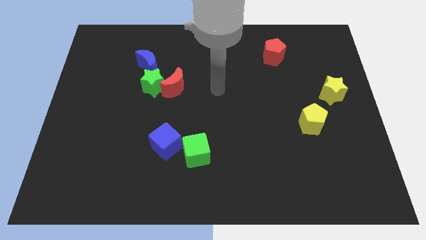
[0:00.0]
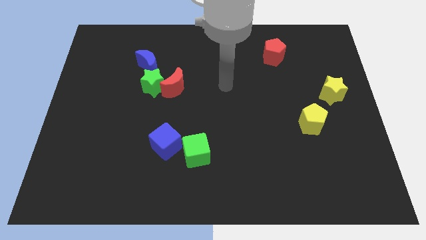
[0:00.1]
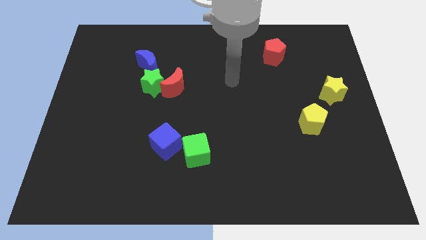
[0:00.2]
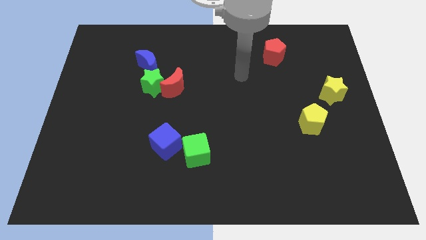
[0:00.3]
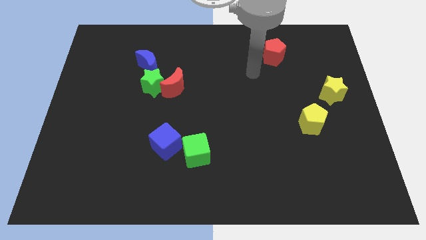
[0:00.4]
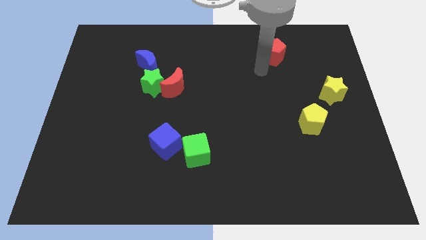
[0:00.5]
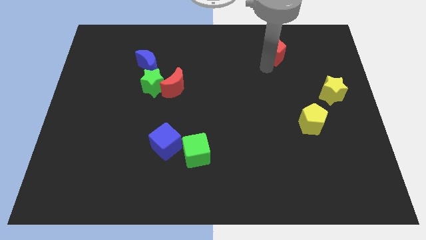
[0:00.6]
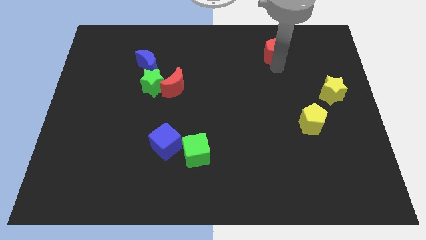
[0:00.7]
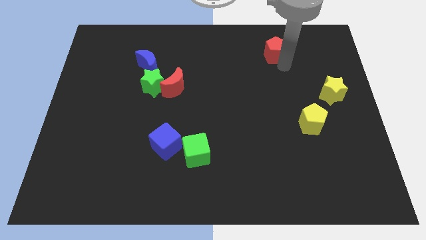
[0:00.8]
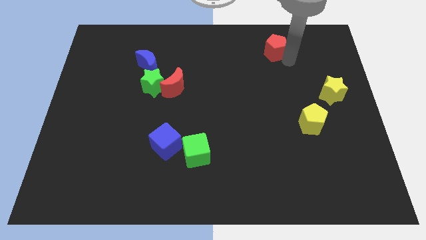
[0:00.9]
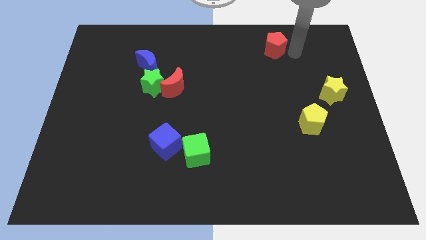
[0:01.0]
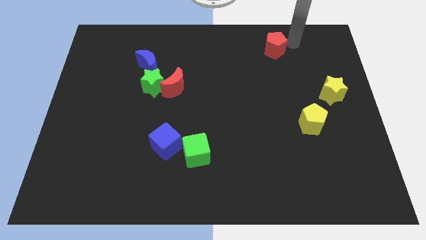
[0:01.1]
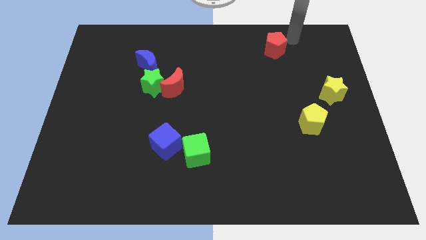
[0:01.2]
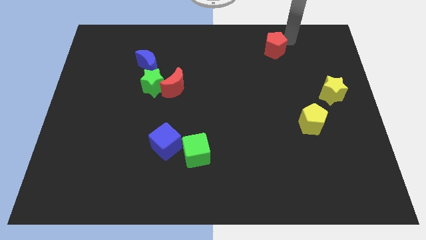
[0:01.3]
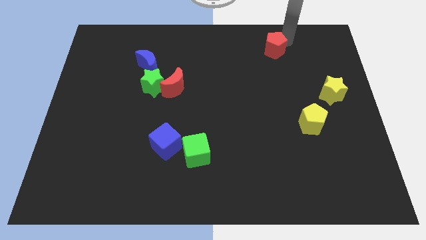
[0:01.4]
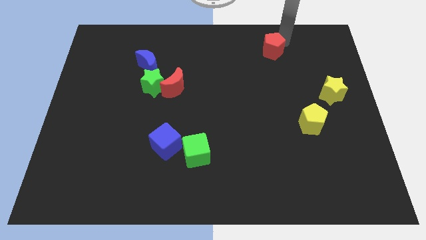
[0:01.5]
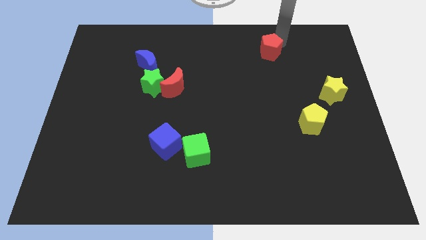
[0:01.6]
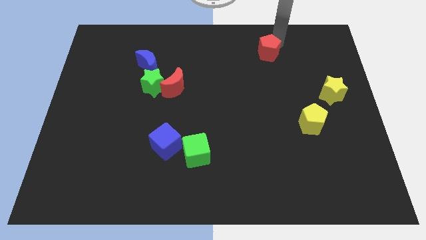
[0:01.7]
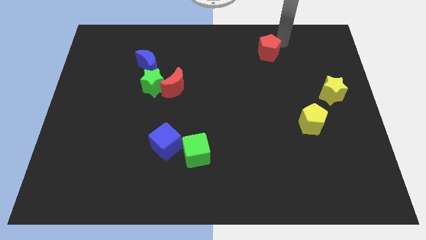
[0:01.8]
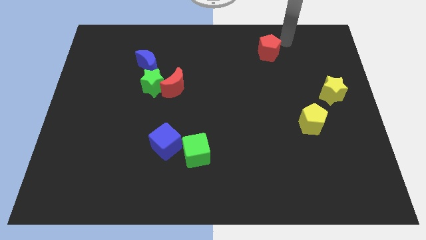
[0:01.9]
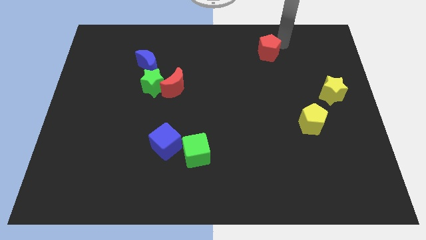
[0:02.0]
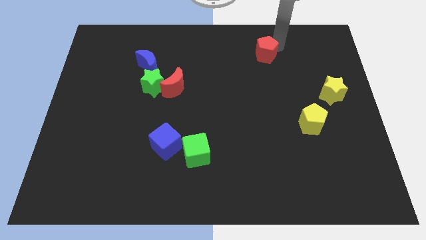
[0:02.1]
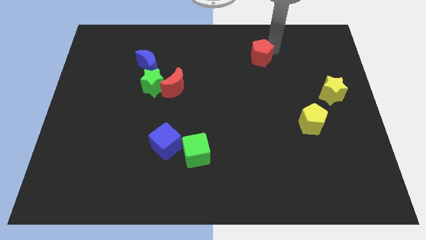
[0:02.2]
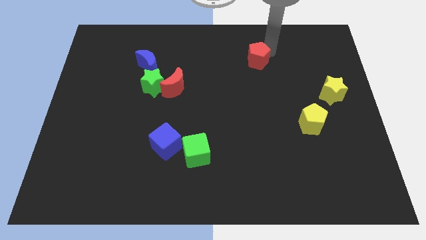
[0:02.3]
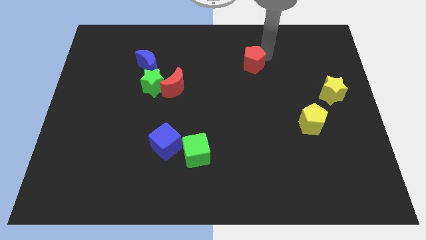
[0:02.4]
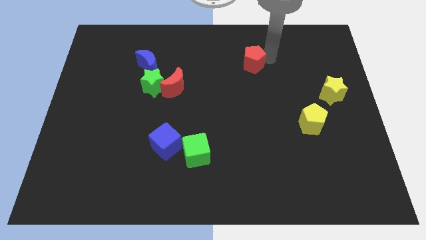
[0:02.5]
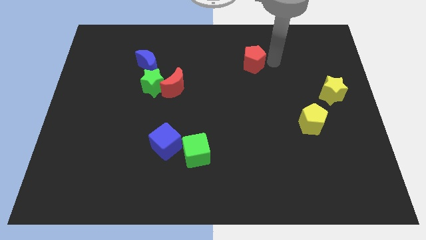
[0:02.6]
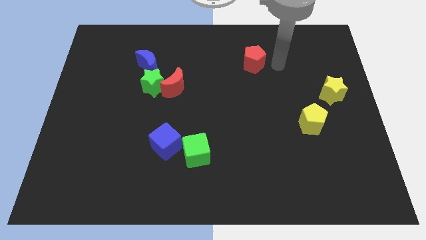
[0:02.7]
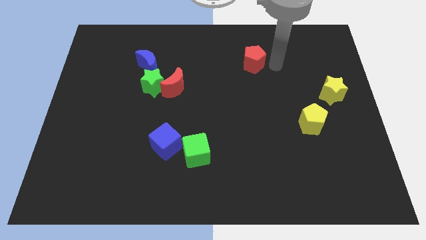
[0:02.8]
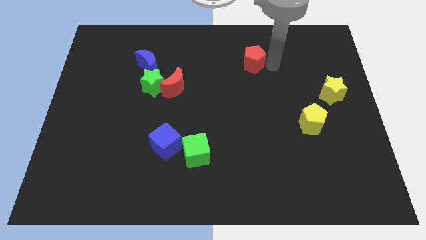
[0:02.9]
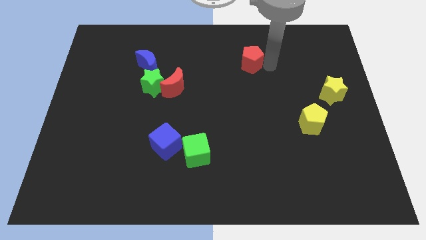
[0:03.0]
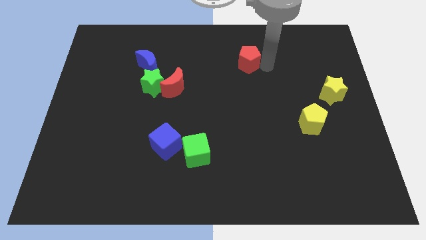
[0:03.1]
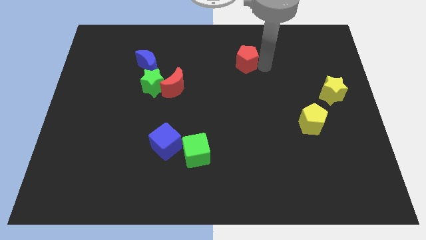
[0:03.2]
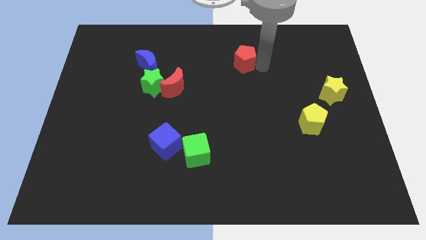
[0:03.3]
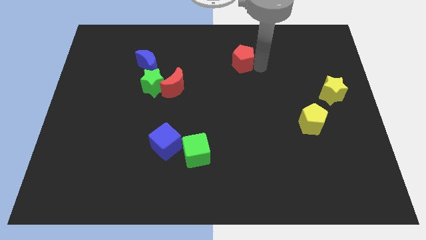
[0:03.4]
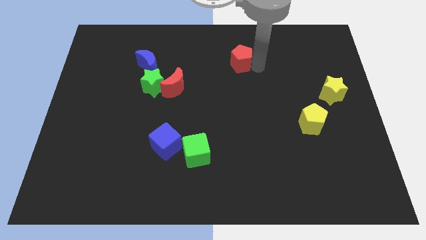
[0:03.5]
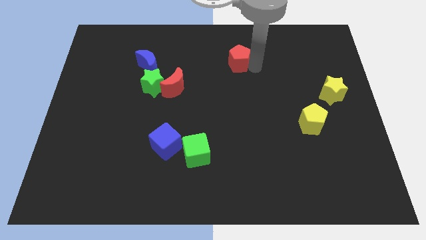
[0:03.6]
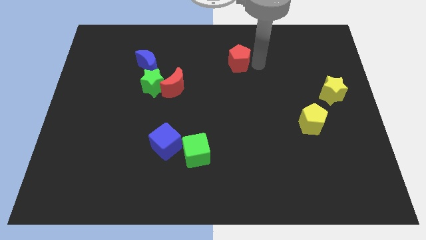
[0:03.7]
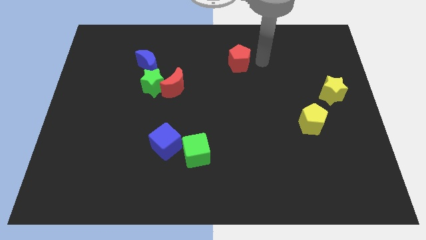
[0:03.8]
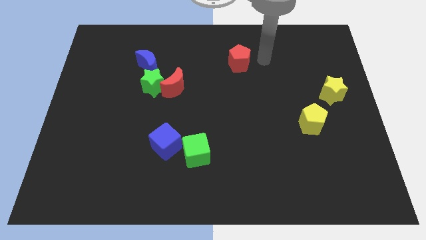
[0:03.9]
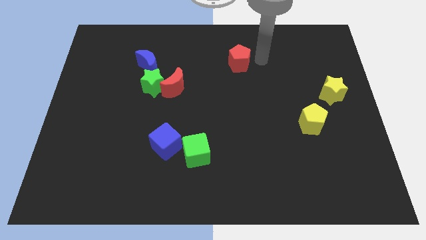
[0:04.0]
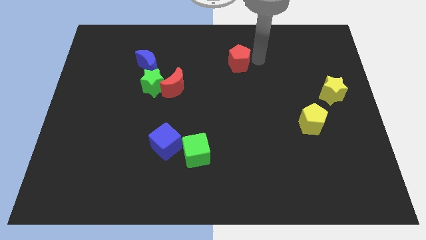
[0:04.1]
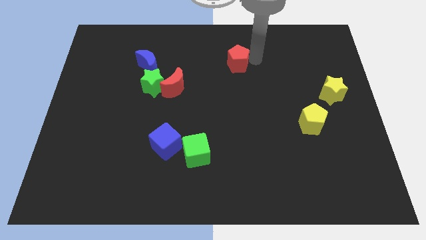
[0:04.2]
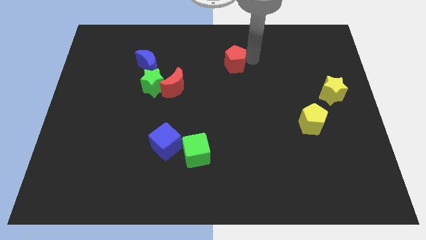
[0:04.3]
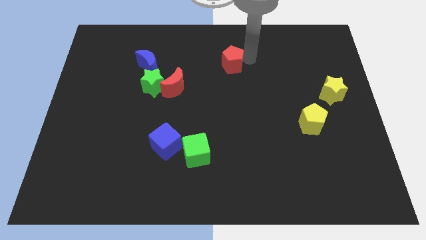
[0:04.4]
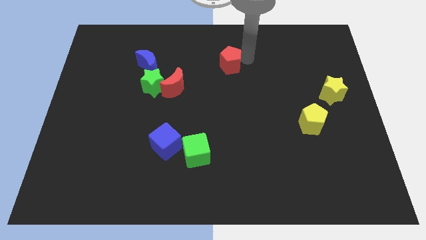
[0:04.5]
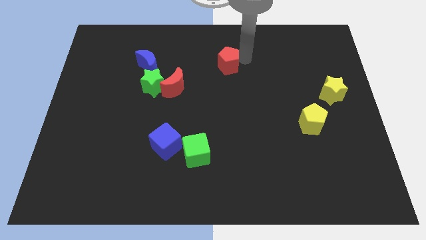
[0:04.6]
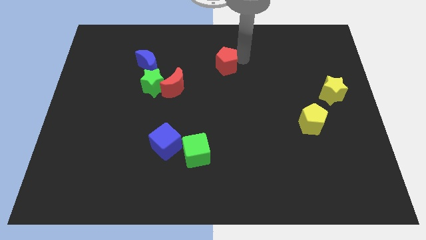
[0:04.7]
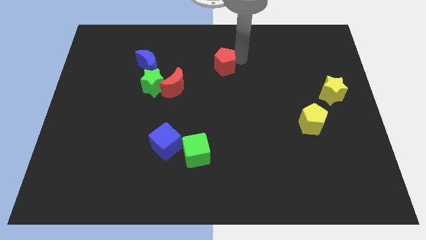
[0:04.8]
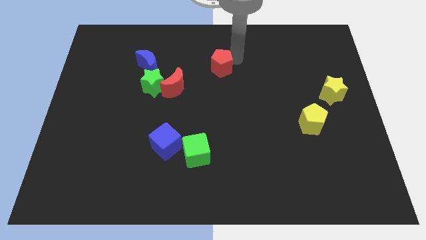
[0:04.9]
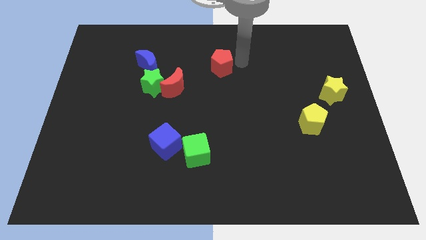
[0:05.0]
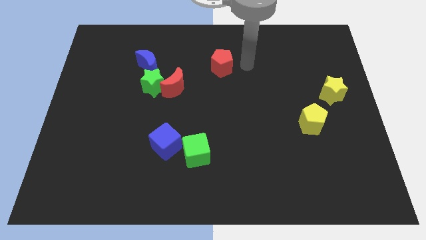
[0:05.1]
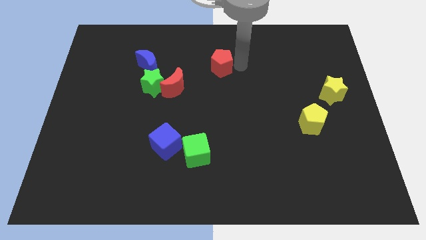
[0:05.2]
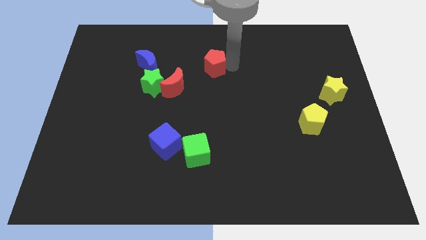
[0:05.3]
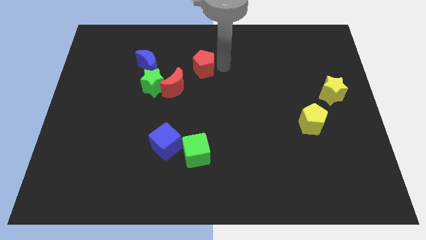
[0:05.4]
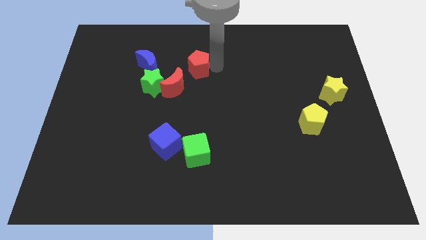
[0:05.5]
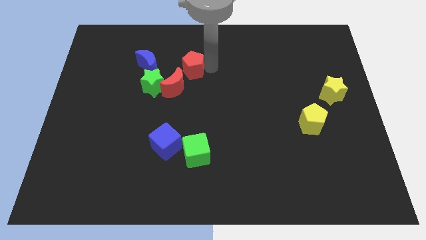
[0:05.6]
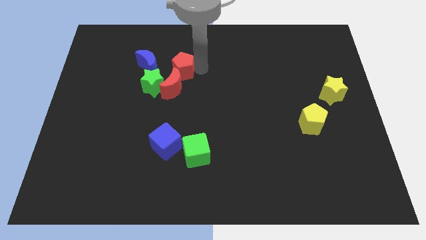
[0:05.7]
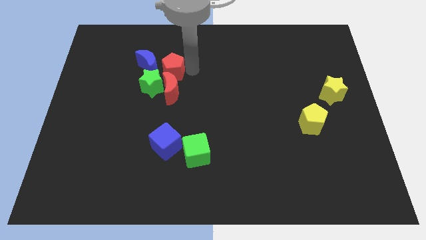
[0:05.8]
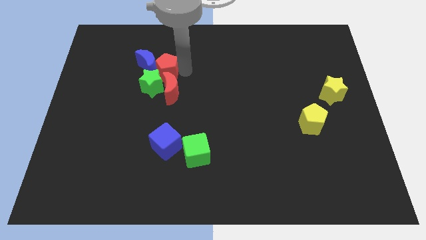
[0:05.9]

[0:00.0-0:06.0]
push the red pentagon towards the blue moon

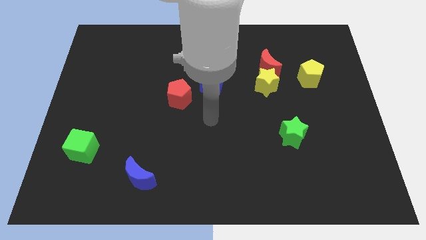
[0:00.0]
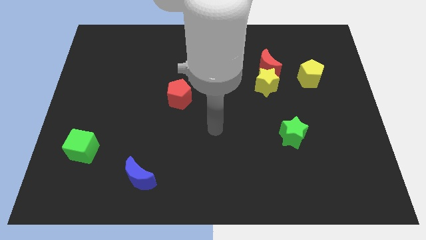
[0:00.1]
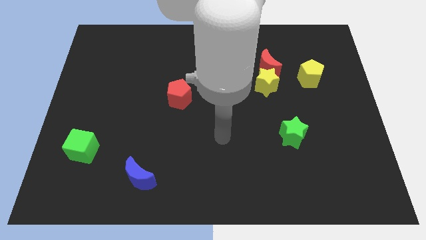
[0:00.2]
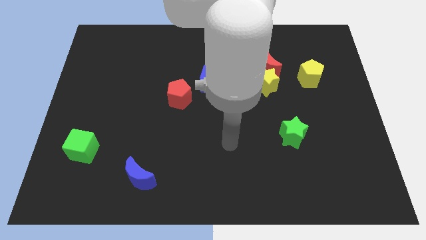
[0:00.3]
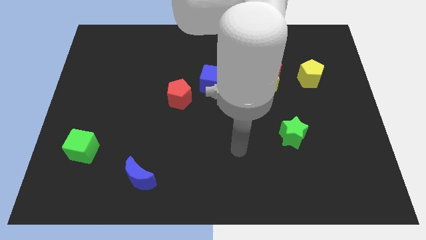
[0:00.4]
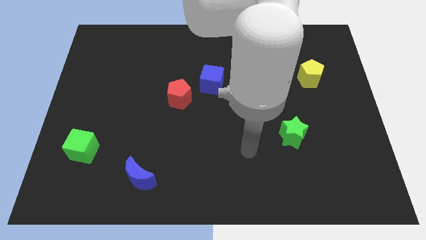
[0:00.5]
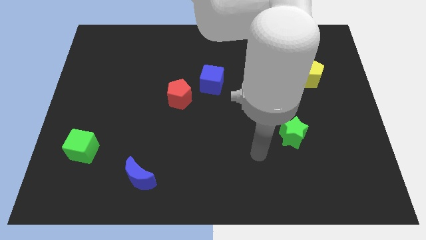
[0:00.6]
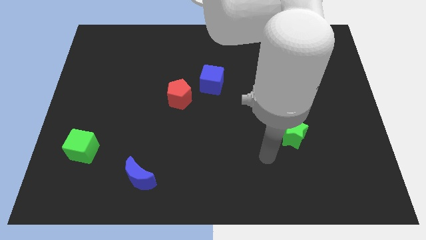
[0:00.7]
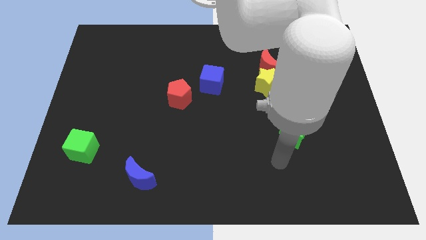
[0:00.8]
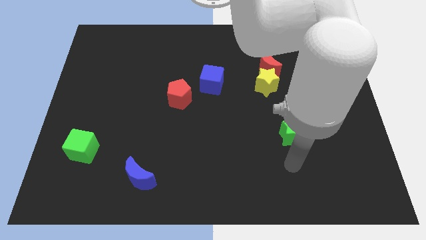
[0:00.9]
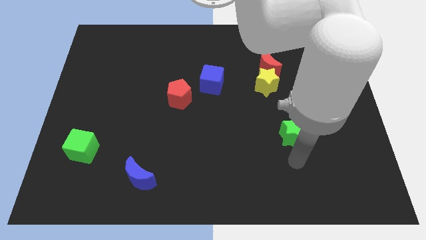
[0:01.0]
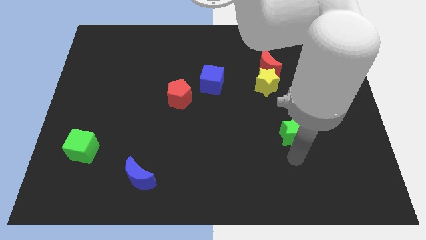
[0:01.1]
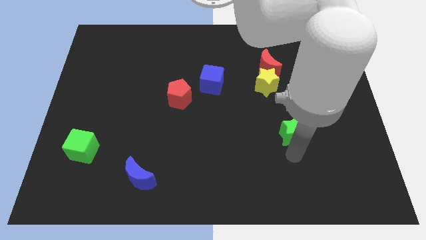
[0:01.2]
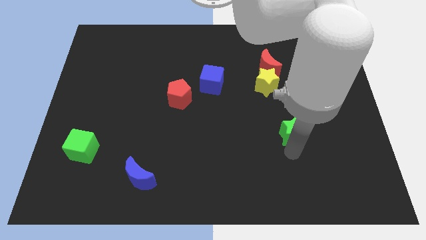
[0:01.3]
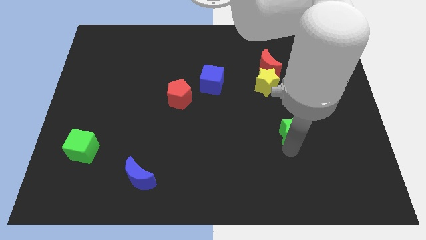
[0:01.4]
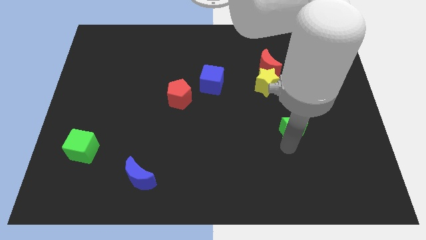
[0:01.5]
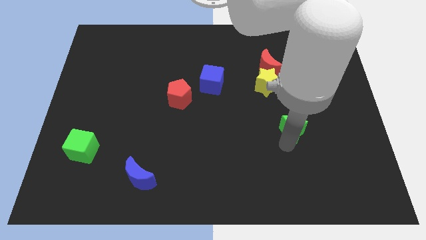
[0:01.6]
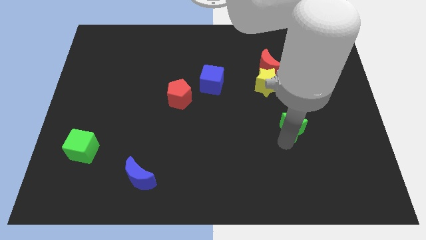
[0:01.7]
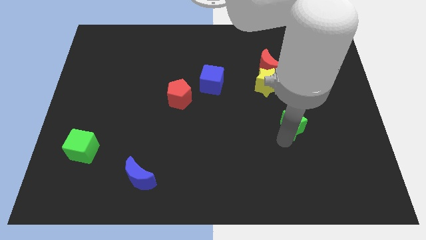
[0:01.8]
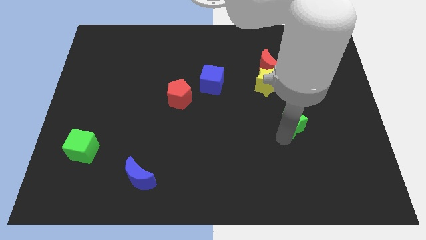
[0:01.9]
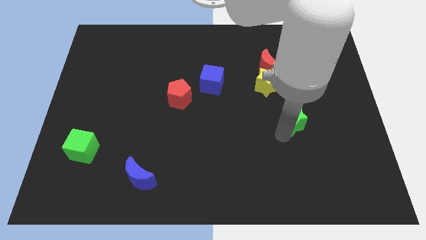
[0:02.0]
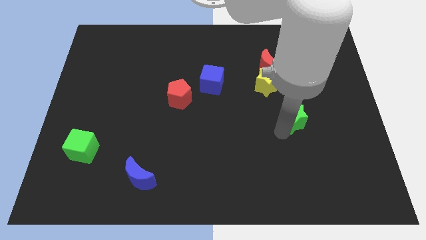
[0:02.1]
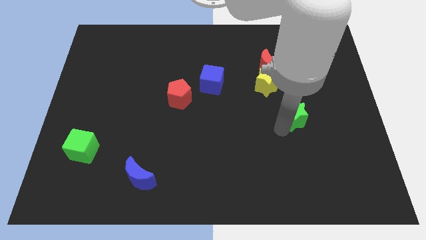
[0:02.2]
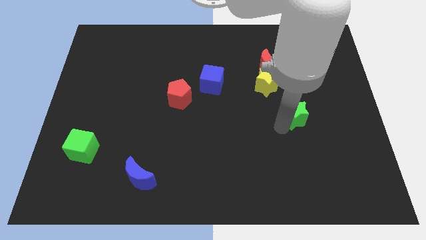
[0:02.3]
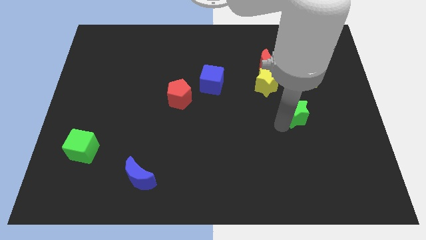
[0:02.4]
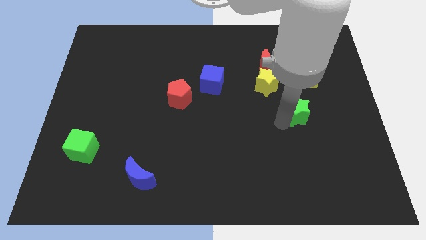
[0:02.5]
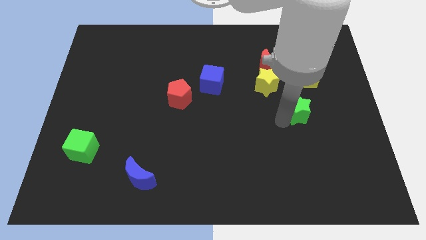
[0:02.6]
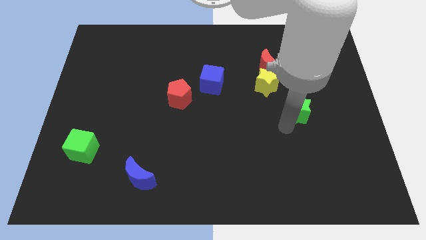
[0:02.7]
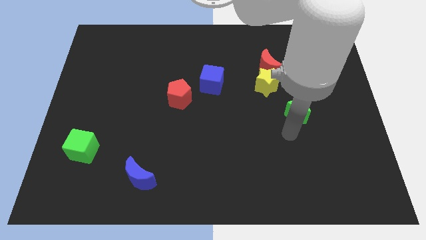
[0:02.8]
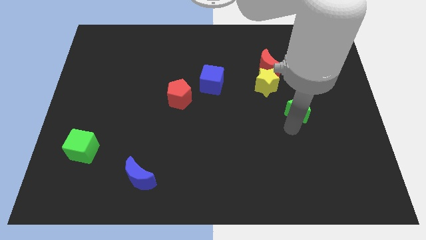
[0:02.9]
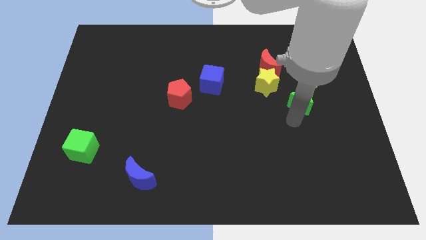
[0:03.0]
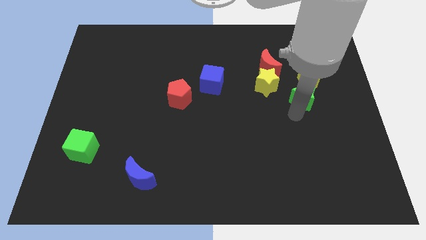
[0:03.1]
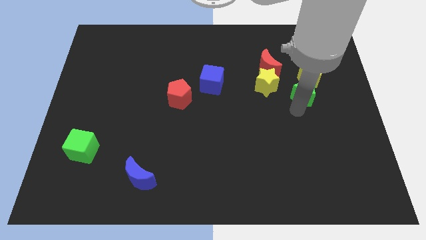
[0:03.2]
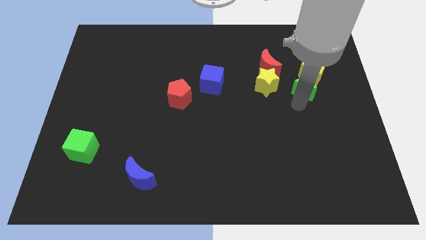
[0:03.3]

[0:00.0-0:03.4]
put the green star close to the yellow pentagon
